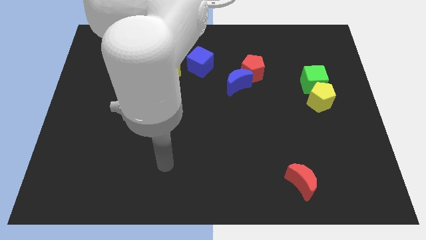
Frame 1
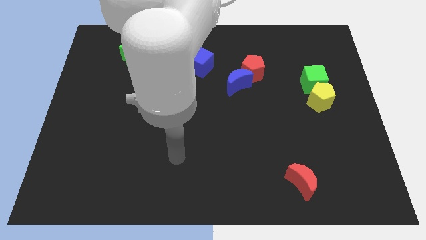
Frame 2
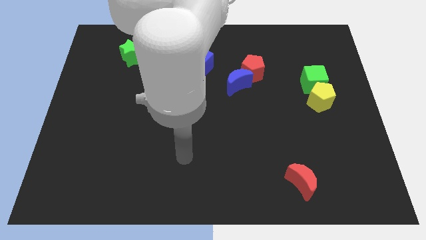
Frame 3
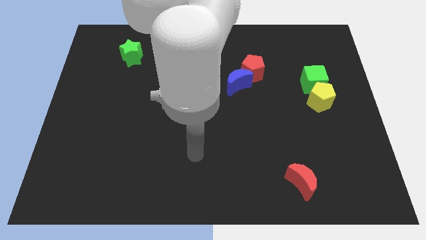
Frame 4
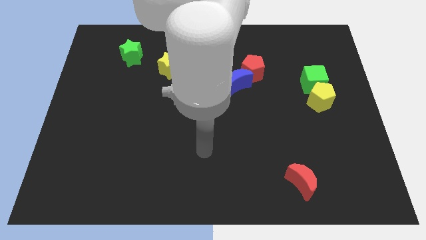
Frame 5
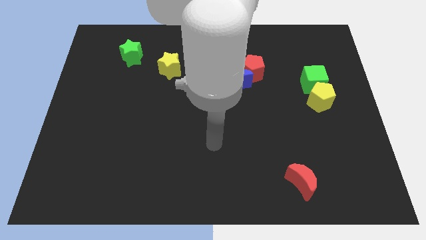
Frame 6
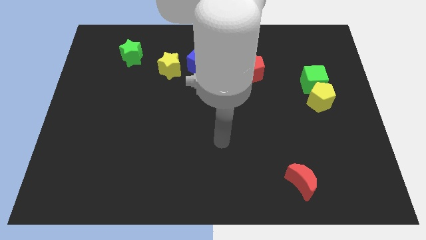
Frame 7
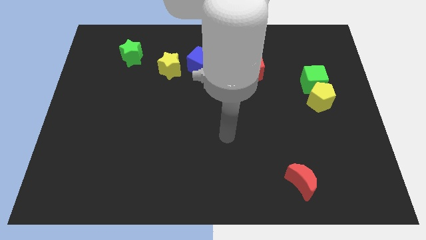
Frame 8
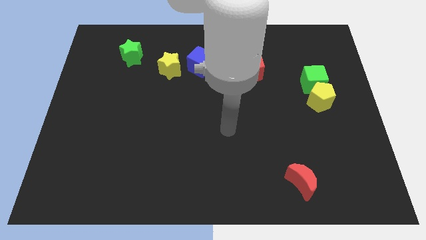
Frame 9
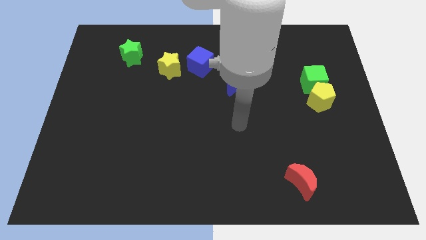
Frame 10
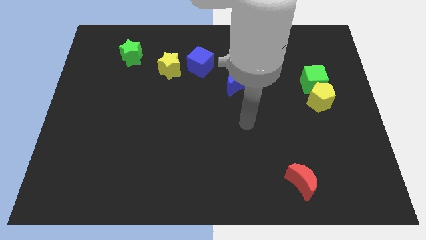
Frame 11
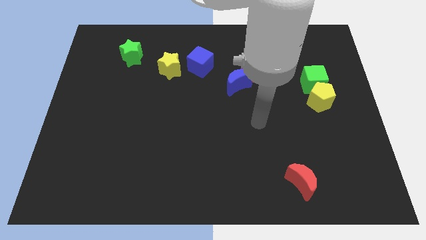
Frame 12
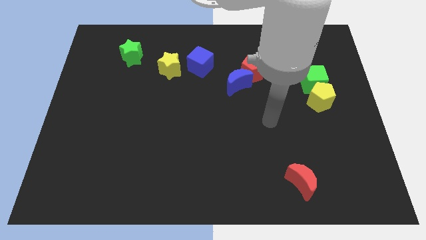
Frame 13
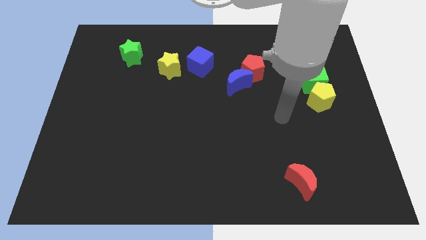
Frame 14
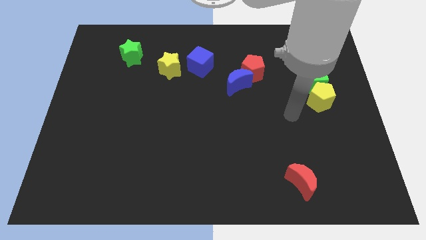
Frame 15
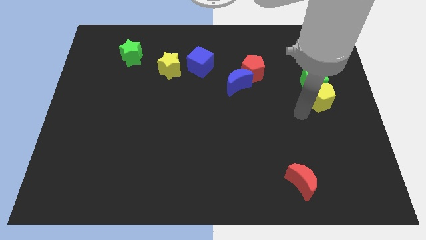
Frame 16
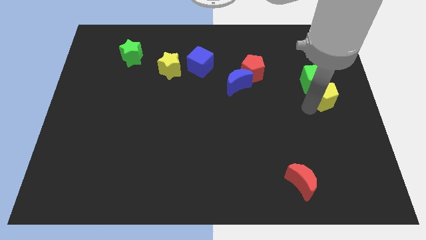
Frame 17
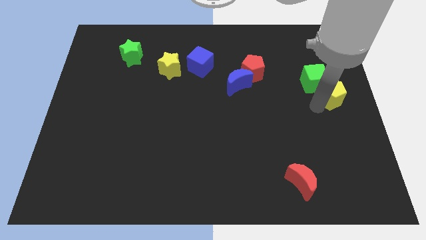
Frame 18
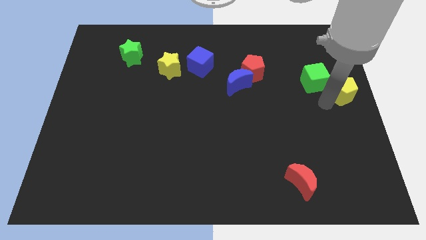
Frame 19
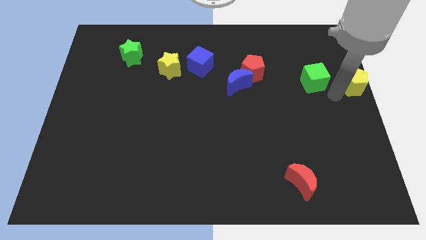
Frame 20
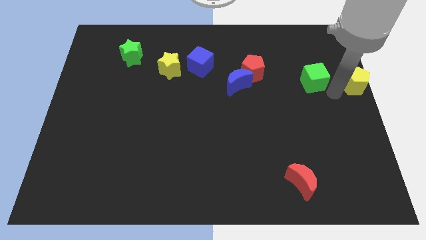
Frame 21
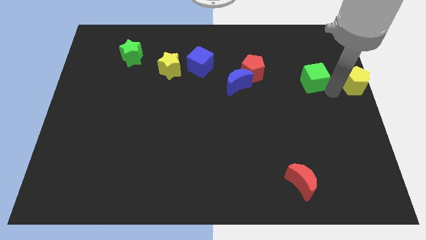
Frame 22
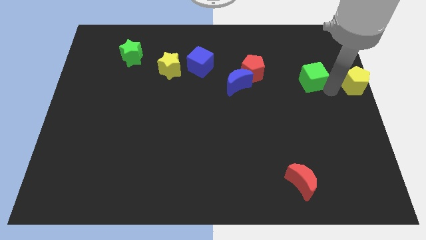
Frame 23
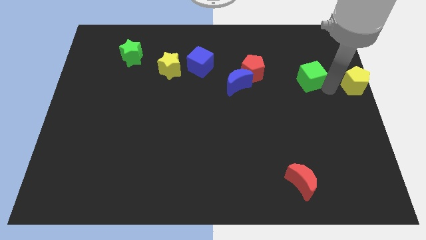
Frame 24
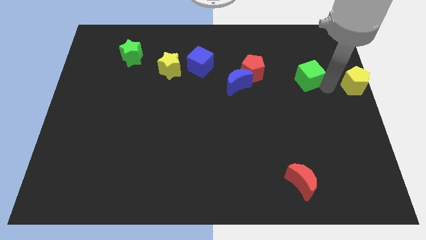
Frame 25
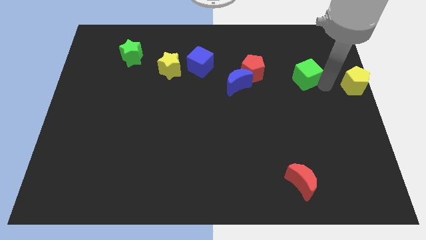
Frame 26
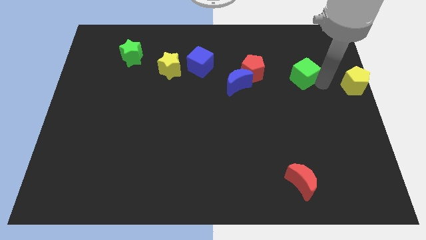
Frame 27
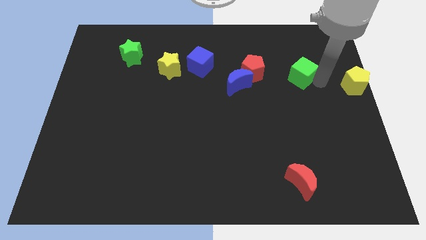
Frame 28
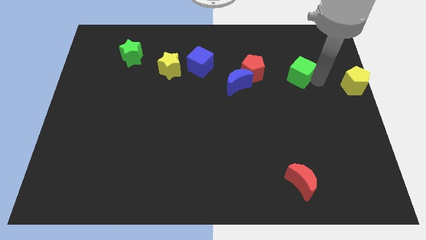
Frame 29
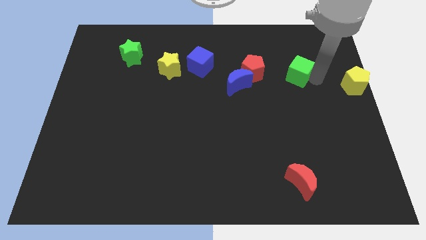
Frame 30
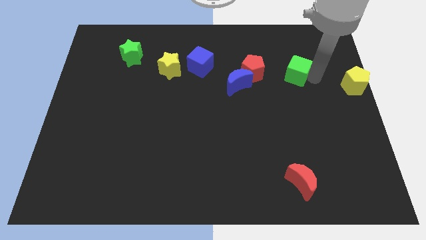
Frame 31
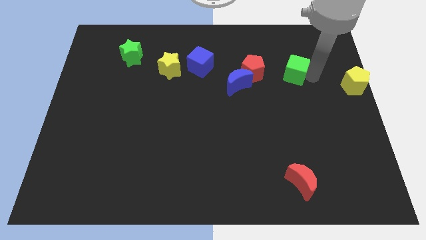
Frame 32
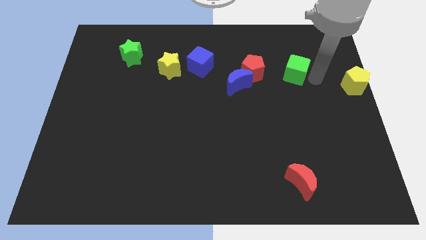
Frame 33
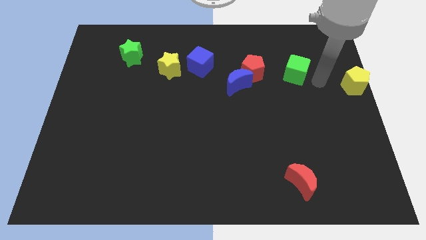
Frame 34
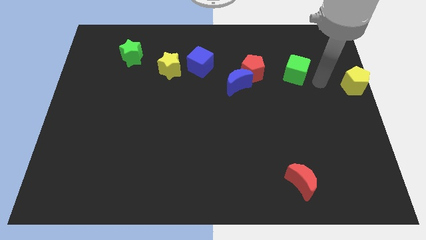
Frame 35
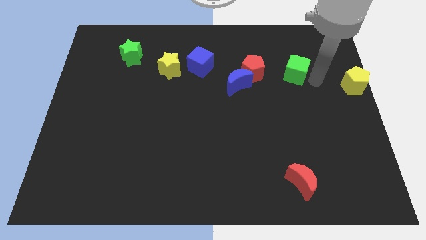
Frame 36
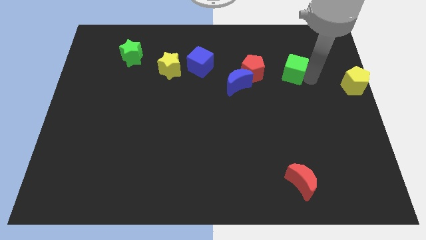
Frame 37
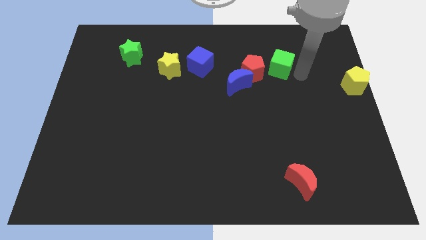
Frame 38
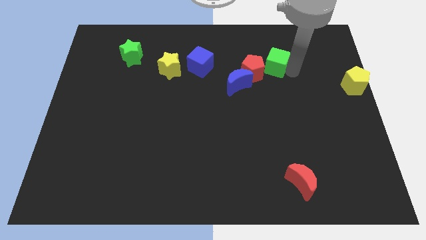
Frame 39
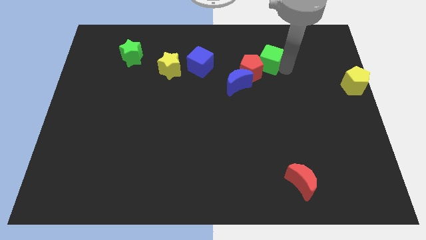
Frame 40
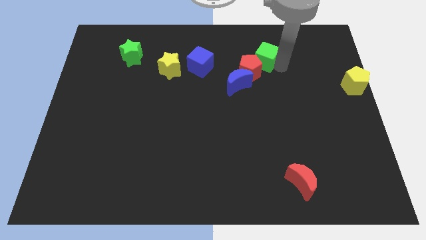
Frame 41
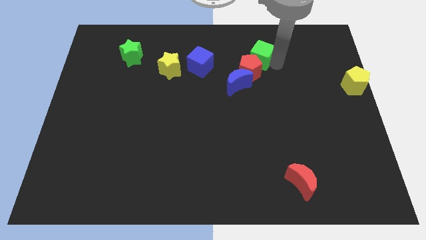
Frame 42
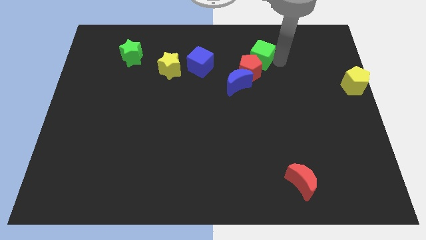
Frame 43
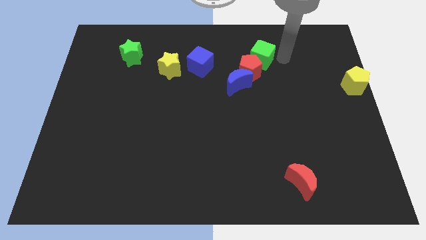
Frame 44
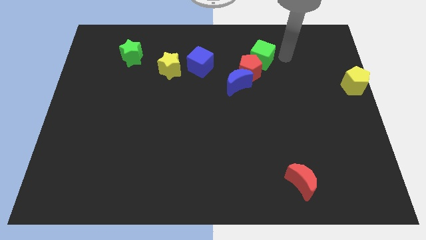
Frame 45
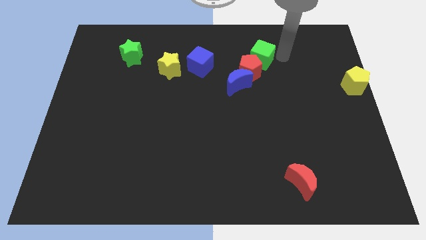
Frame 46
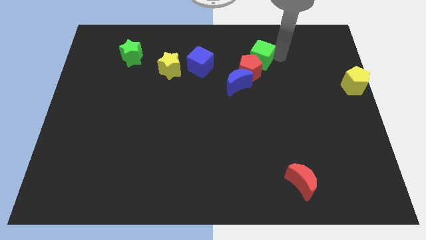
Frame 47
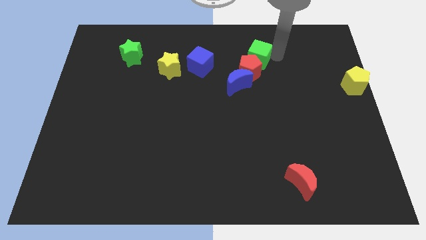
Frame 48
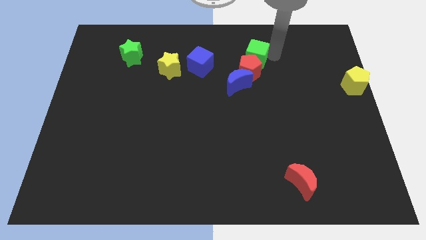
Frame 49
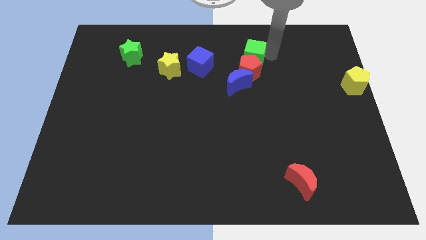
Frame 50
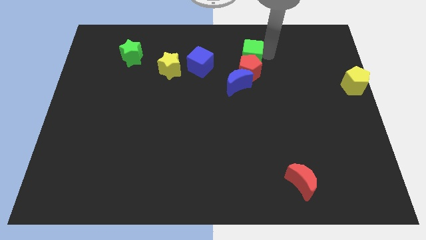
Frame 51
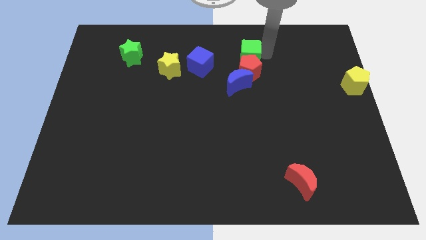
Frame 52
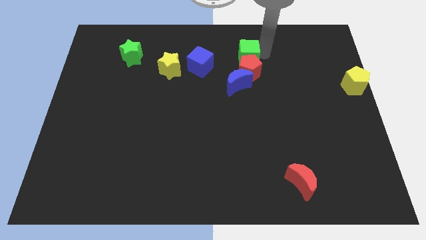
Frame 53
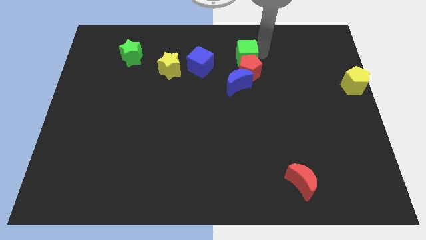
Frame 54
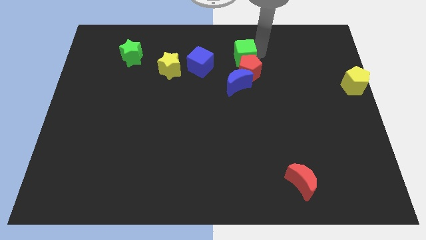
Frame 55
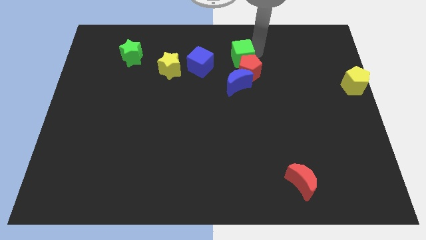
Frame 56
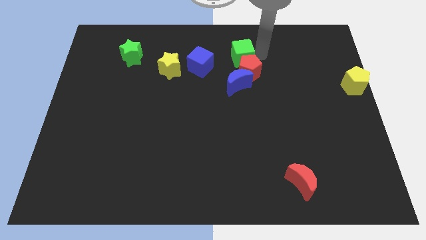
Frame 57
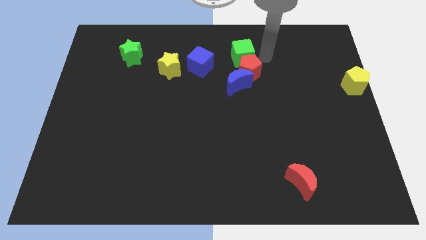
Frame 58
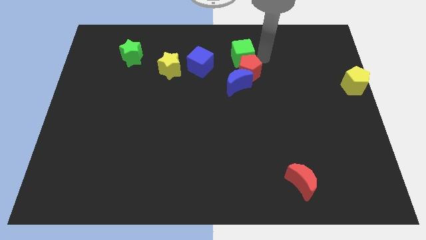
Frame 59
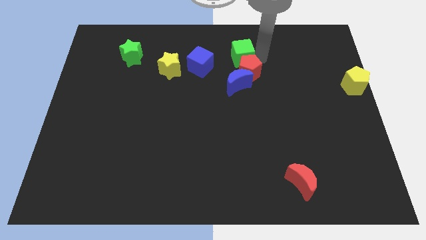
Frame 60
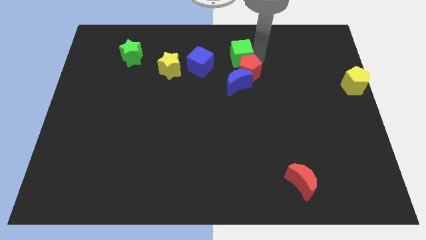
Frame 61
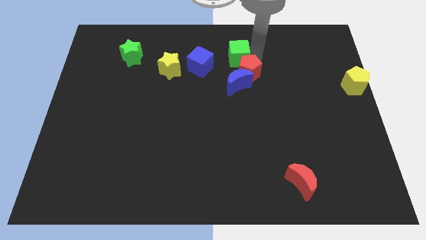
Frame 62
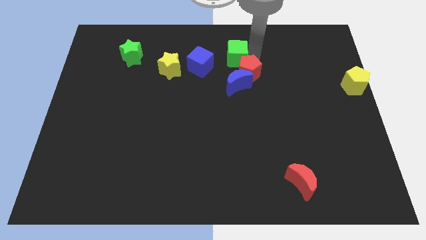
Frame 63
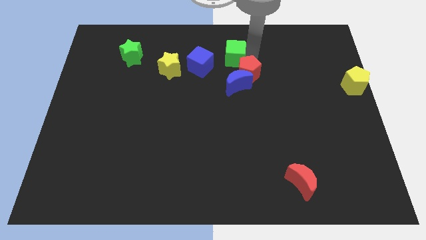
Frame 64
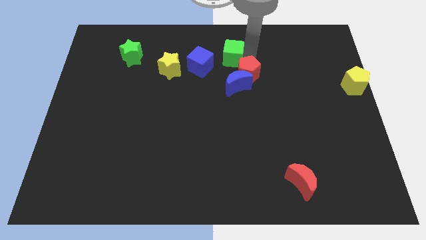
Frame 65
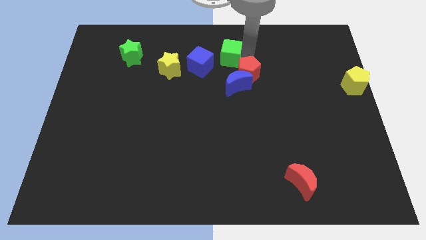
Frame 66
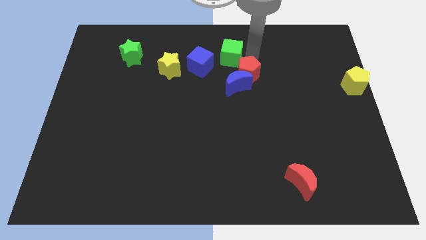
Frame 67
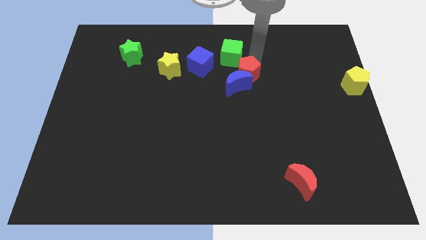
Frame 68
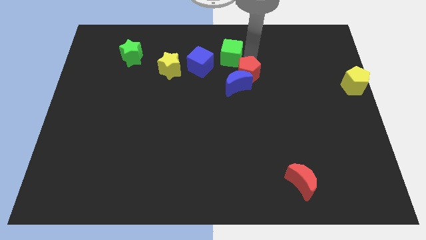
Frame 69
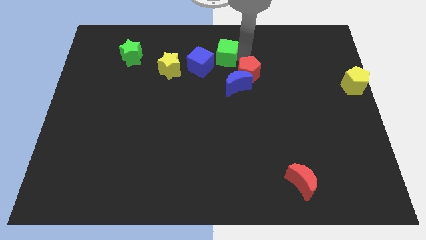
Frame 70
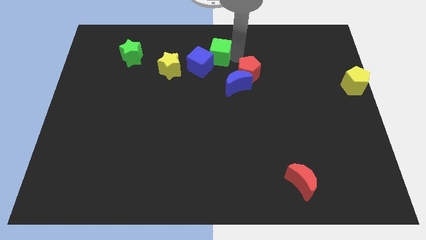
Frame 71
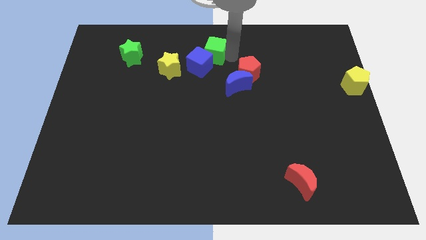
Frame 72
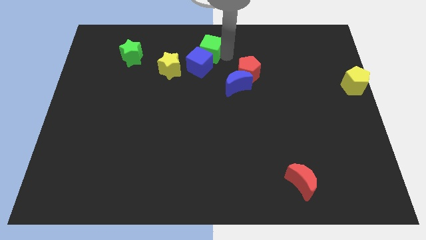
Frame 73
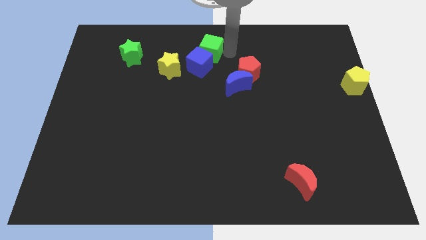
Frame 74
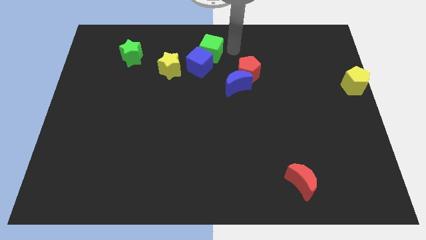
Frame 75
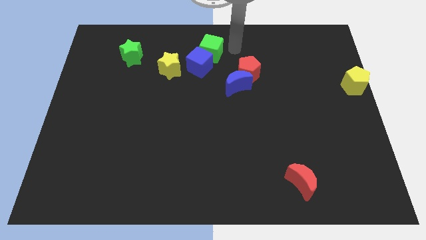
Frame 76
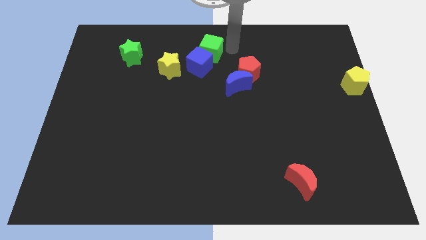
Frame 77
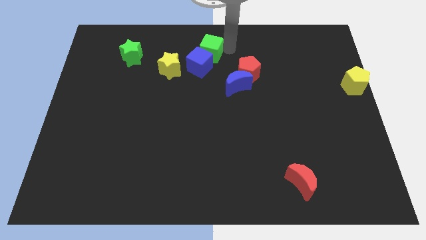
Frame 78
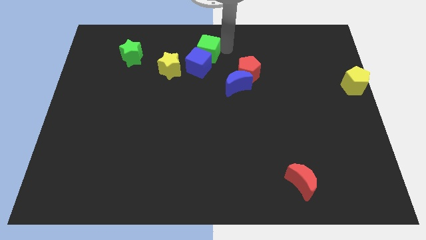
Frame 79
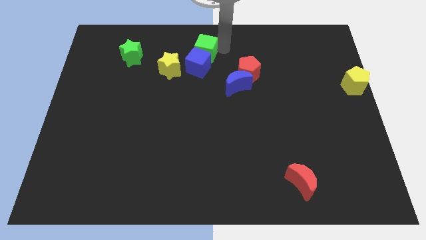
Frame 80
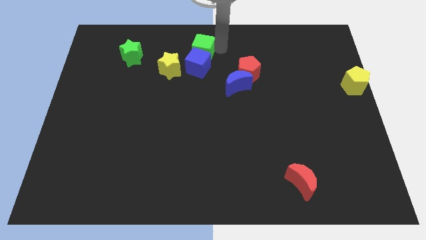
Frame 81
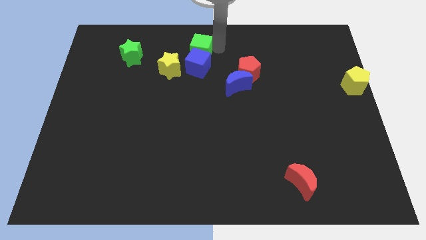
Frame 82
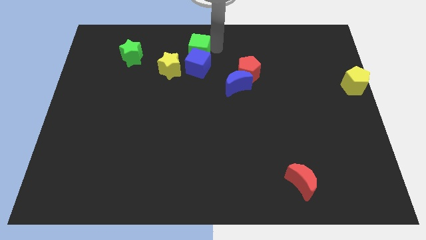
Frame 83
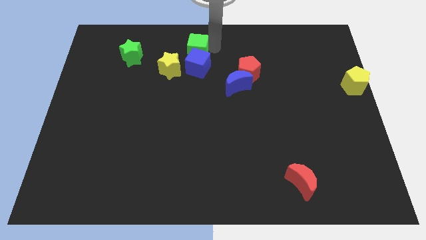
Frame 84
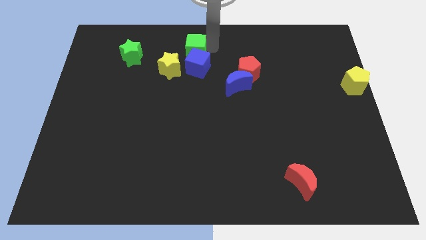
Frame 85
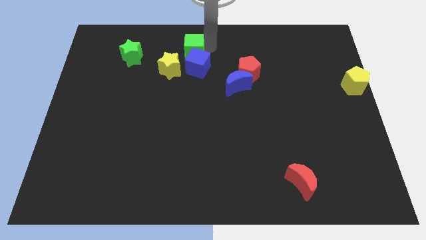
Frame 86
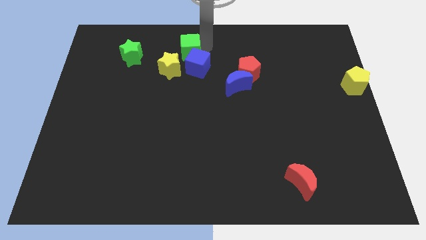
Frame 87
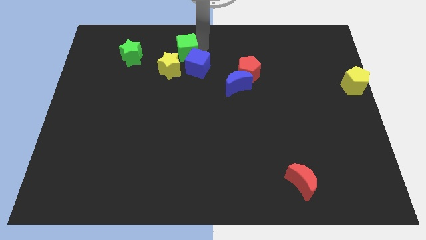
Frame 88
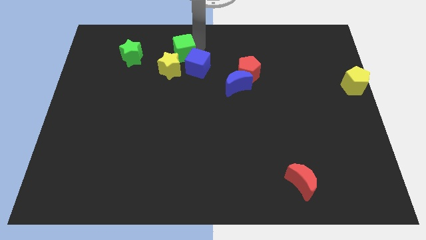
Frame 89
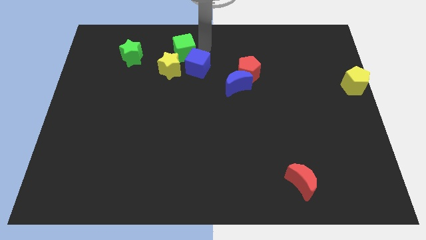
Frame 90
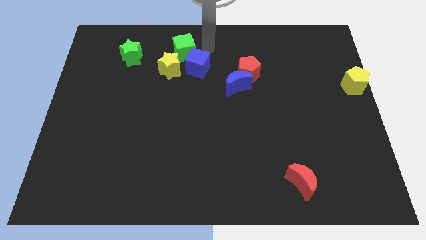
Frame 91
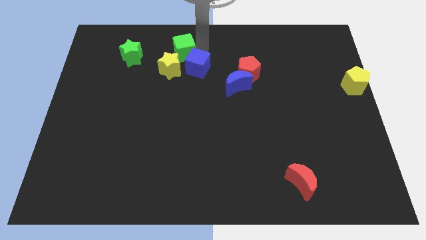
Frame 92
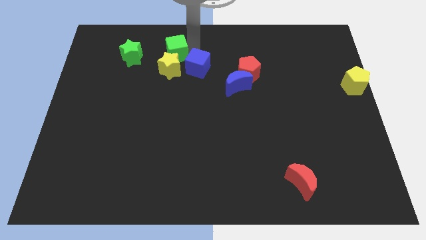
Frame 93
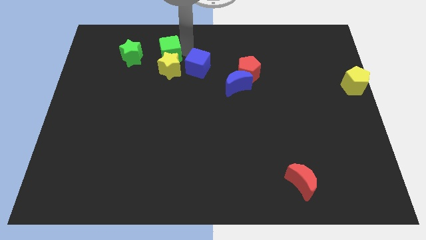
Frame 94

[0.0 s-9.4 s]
put the green cube to the top left of the yellow star
